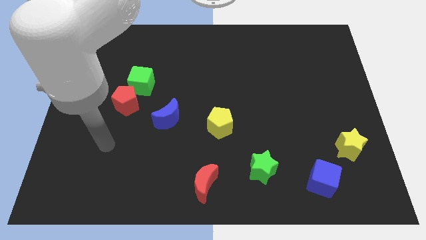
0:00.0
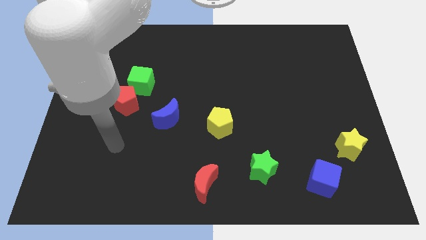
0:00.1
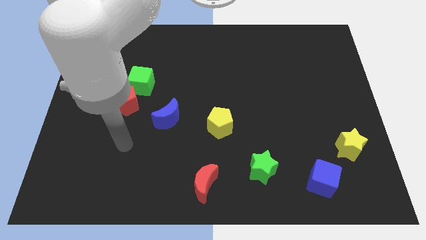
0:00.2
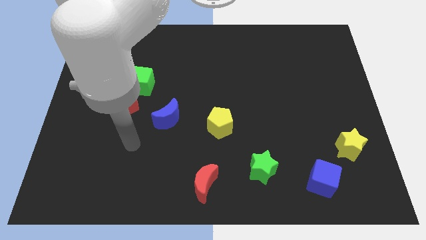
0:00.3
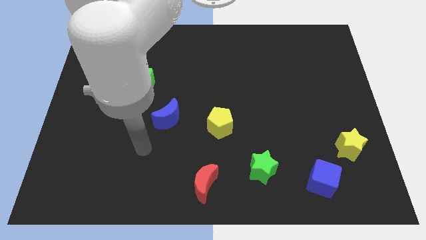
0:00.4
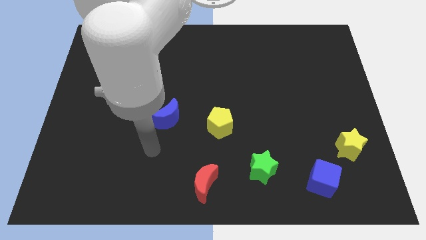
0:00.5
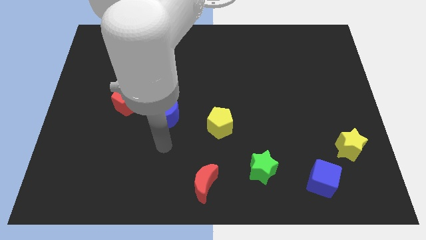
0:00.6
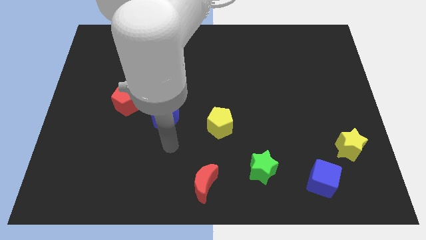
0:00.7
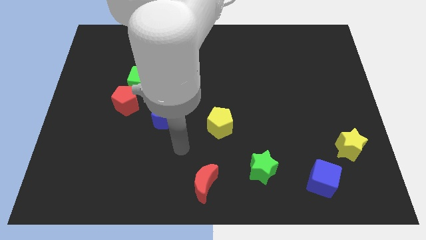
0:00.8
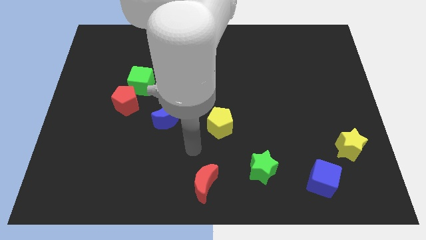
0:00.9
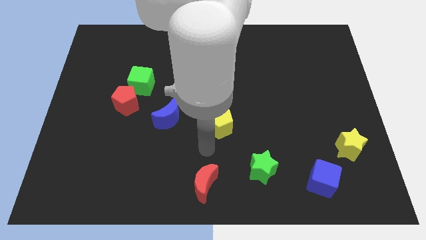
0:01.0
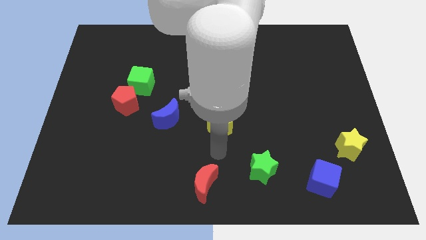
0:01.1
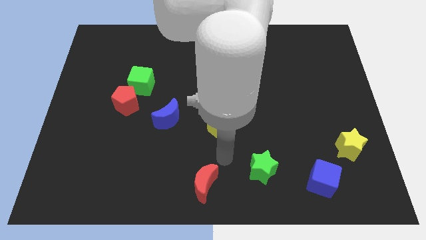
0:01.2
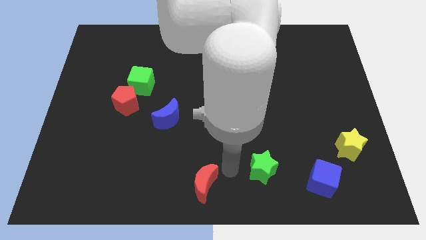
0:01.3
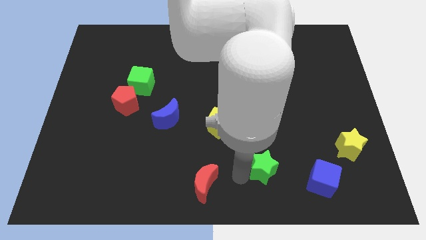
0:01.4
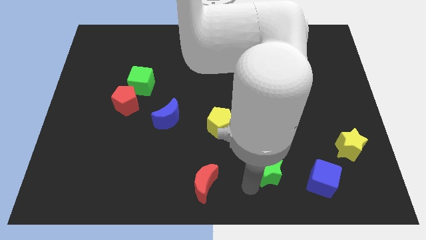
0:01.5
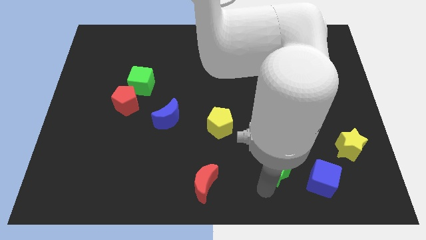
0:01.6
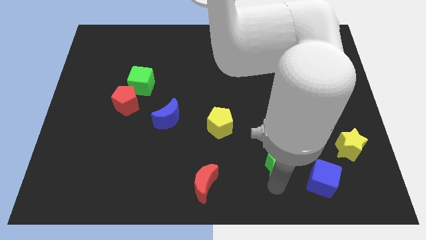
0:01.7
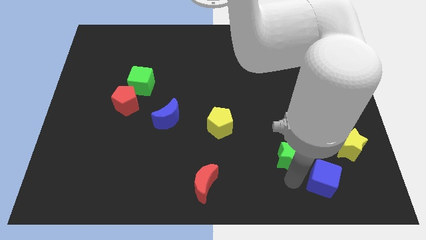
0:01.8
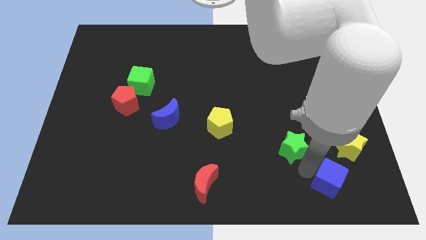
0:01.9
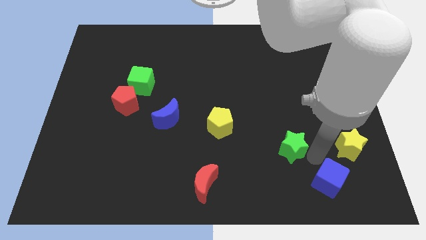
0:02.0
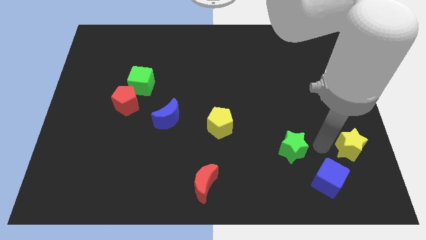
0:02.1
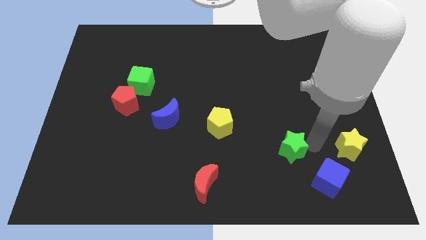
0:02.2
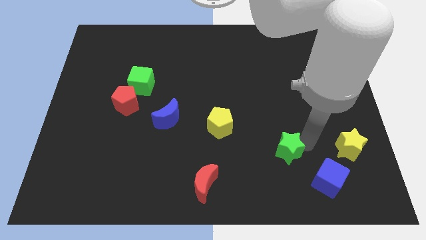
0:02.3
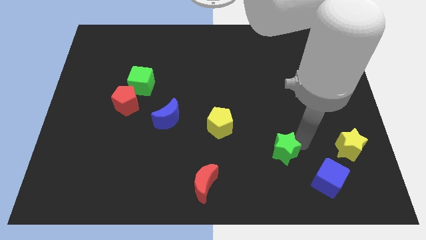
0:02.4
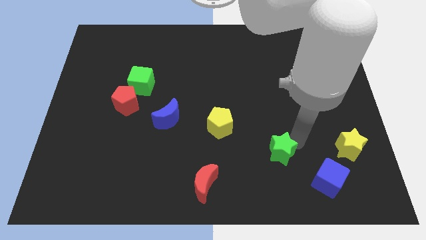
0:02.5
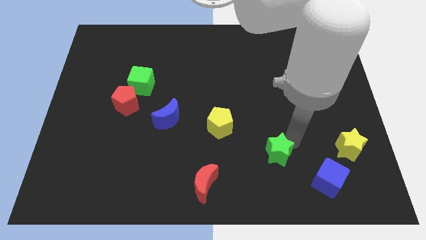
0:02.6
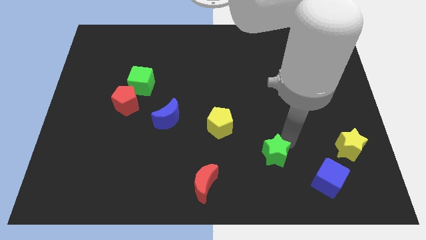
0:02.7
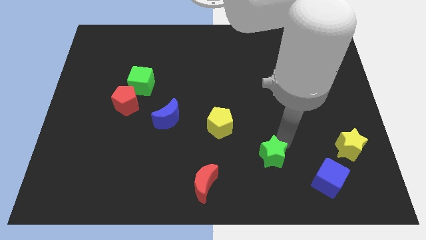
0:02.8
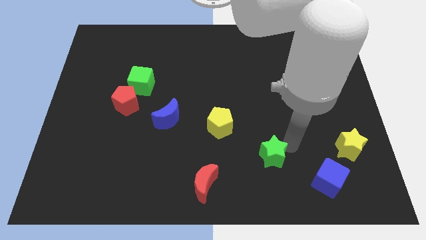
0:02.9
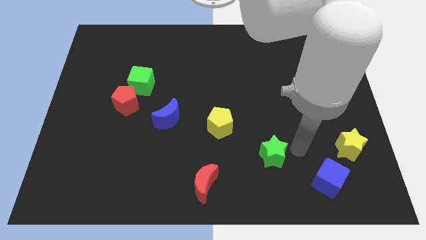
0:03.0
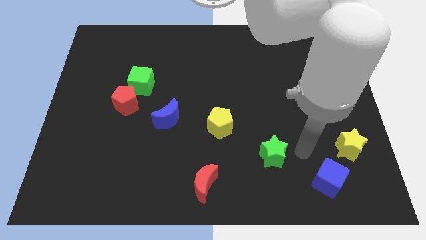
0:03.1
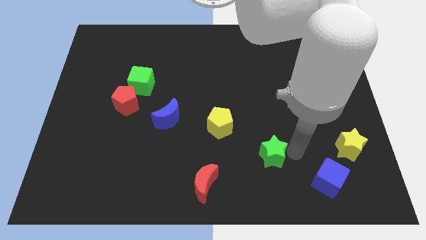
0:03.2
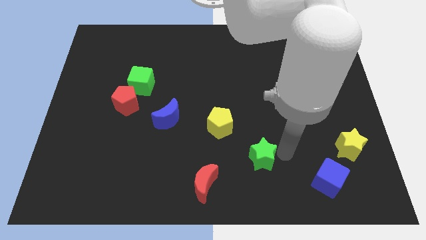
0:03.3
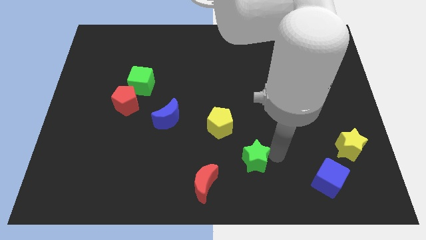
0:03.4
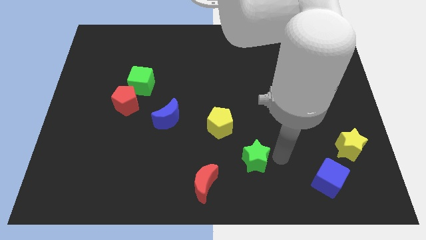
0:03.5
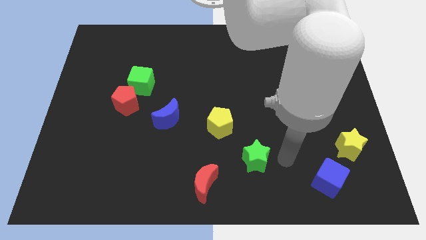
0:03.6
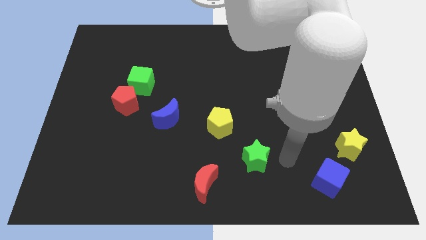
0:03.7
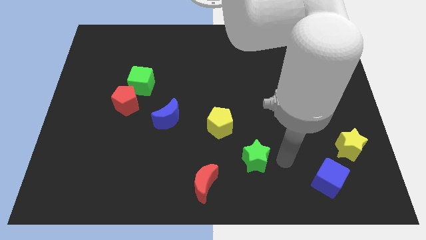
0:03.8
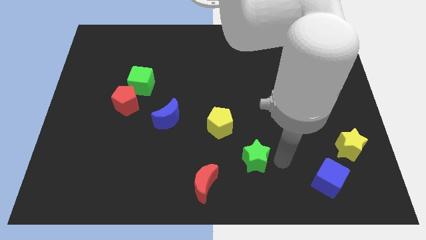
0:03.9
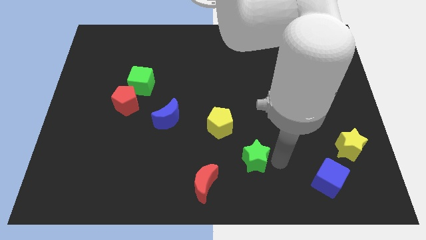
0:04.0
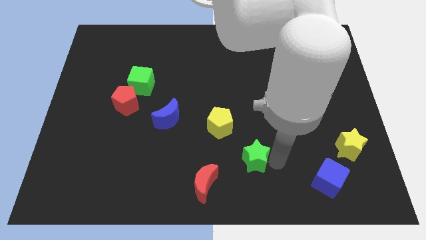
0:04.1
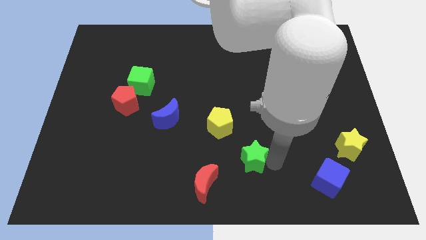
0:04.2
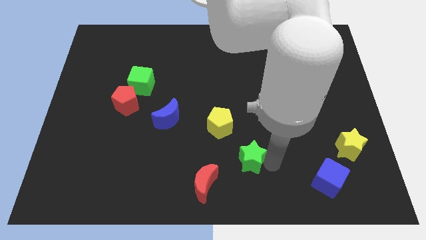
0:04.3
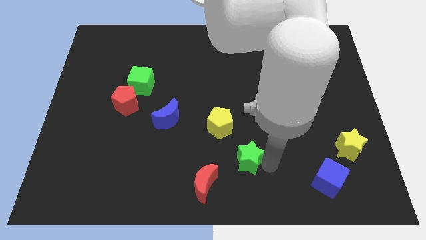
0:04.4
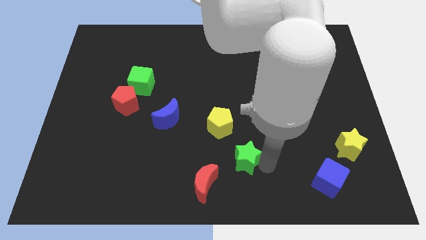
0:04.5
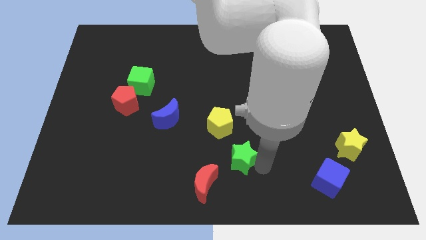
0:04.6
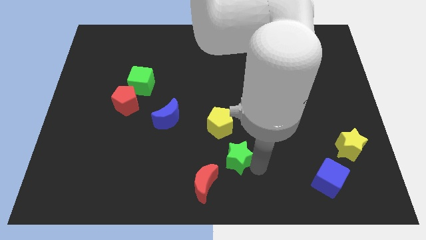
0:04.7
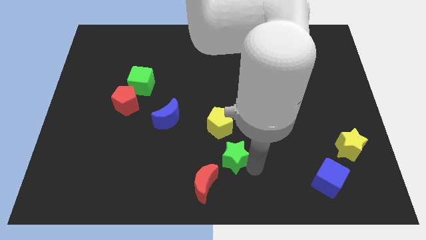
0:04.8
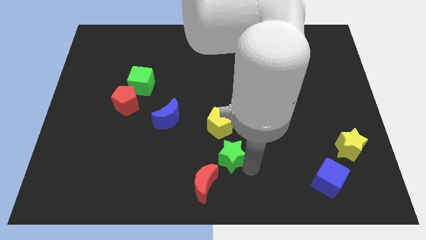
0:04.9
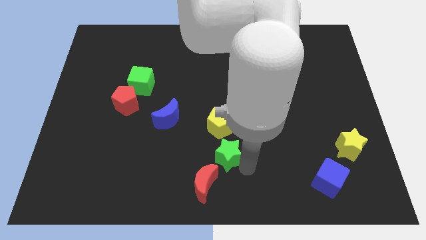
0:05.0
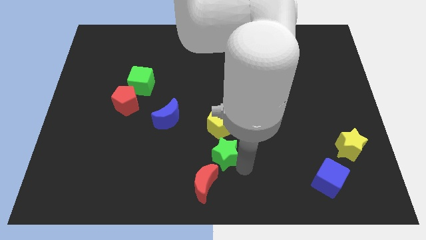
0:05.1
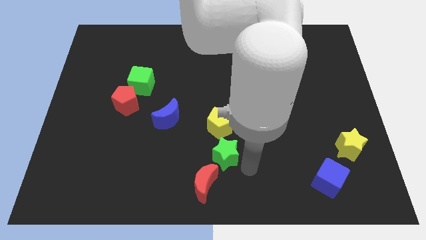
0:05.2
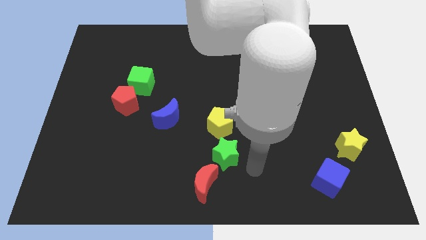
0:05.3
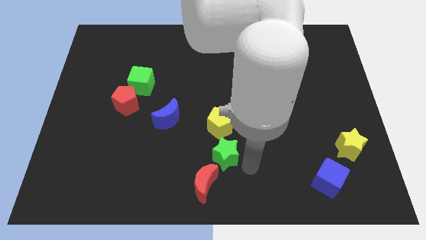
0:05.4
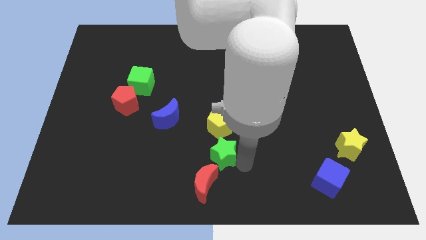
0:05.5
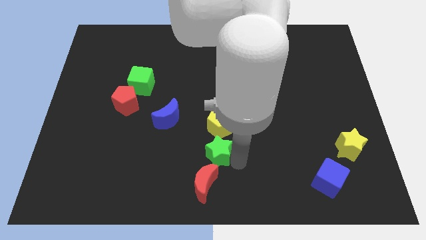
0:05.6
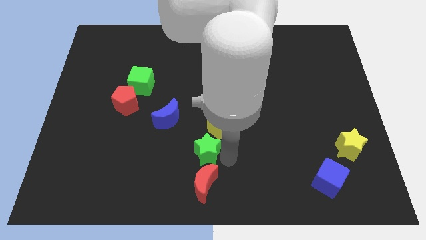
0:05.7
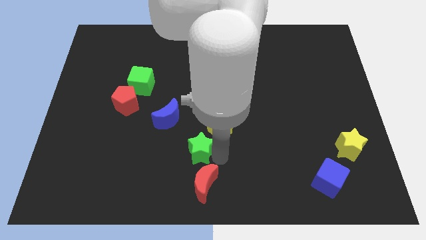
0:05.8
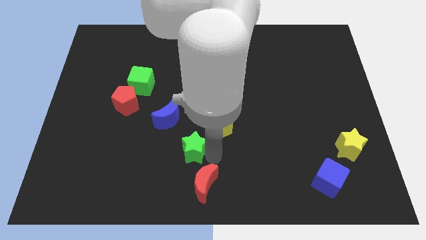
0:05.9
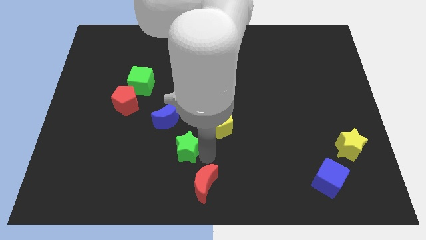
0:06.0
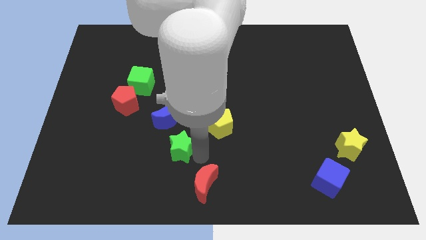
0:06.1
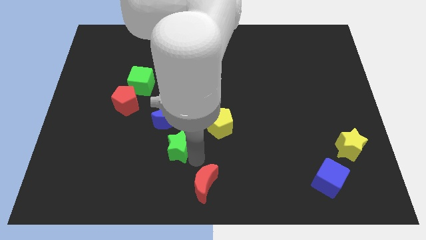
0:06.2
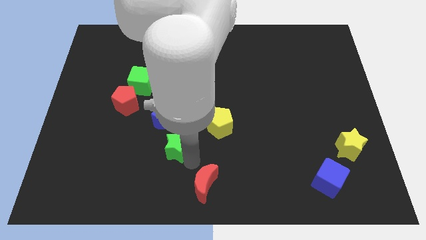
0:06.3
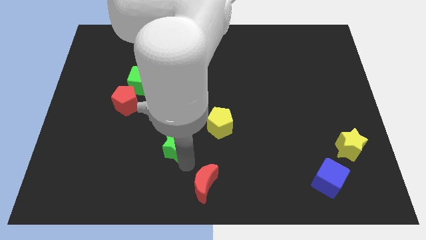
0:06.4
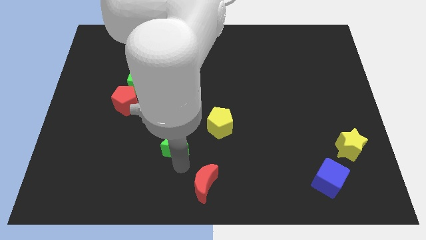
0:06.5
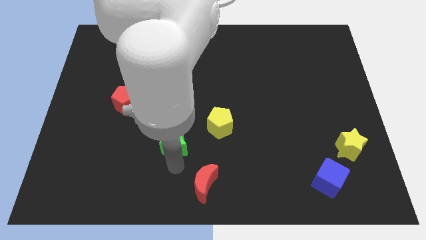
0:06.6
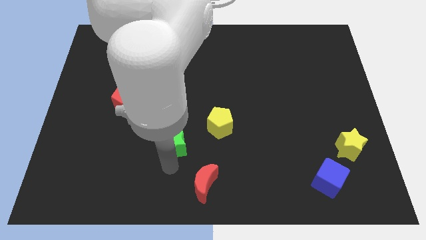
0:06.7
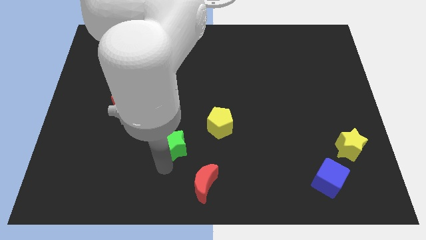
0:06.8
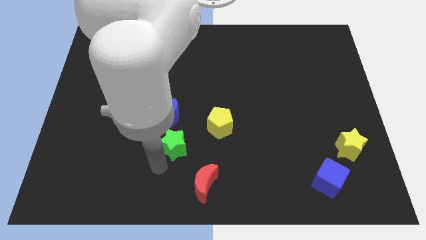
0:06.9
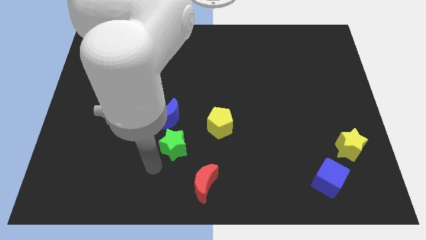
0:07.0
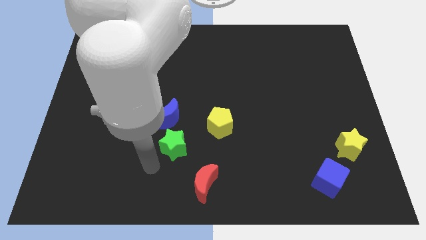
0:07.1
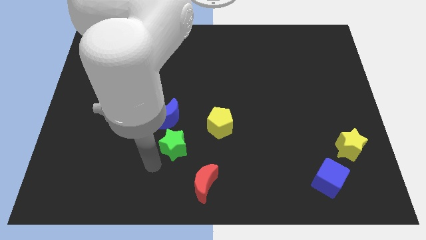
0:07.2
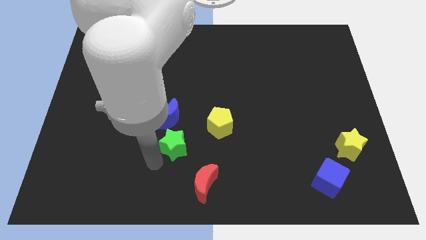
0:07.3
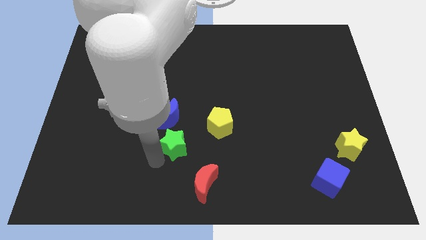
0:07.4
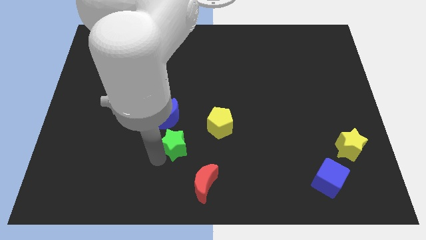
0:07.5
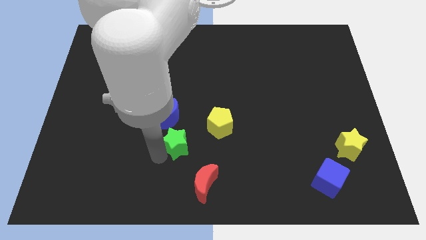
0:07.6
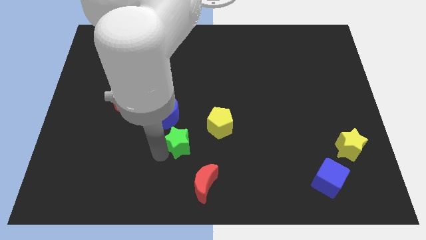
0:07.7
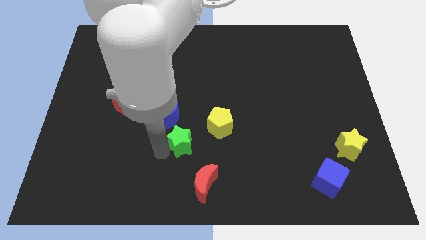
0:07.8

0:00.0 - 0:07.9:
move the green star to the left of the yellow pentagon
